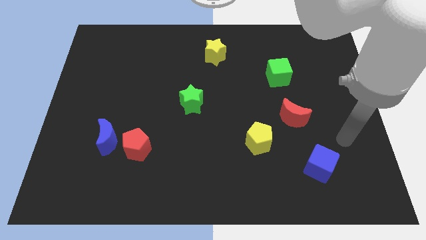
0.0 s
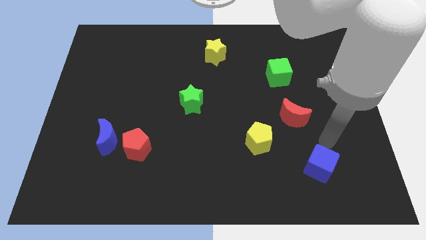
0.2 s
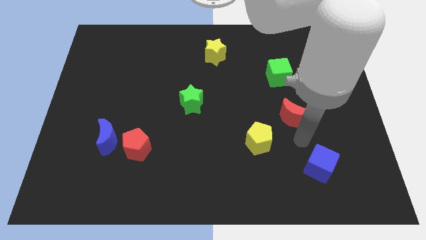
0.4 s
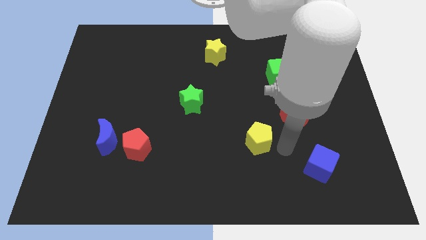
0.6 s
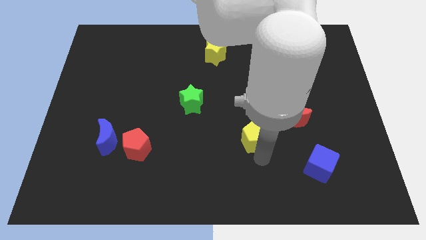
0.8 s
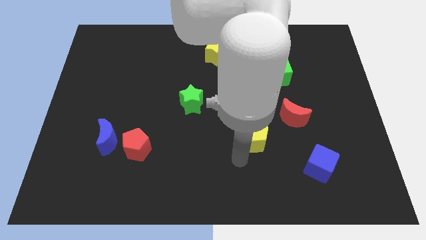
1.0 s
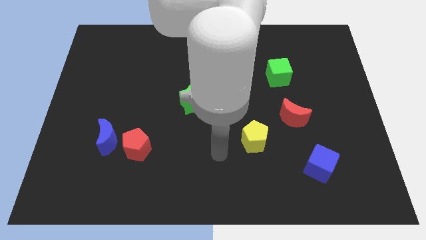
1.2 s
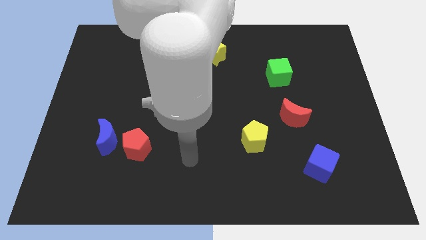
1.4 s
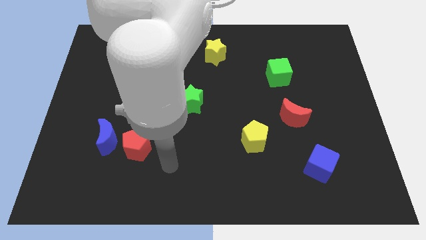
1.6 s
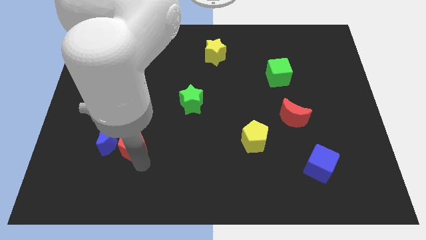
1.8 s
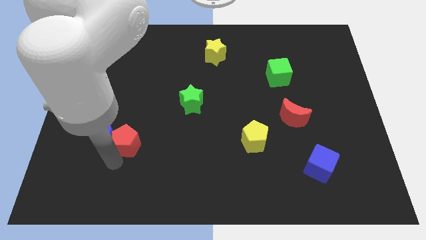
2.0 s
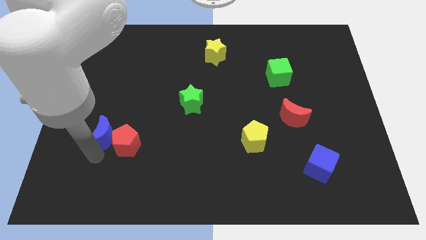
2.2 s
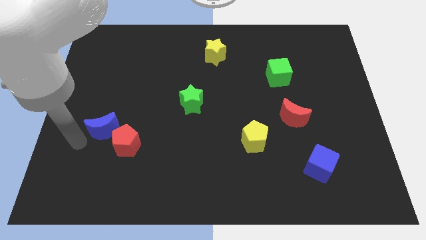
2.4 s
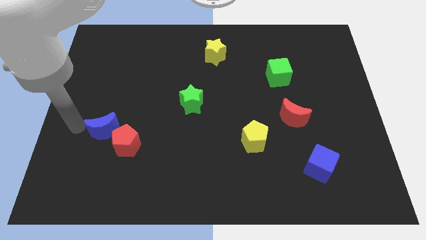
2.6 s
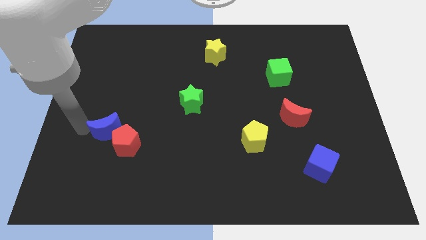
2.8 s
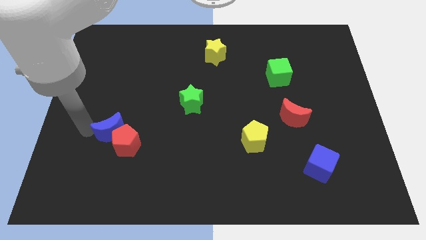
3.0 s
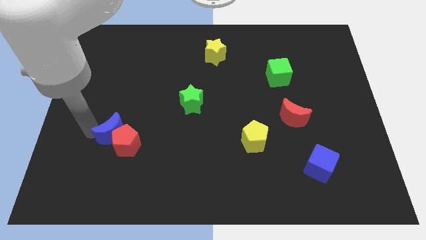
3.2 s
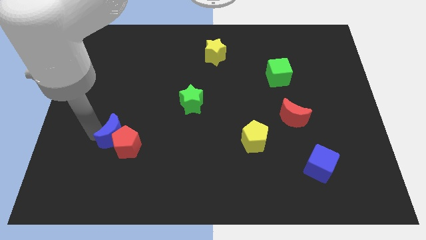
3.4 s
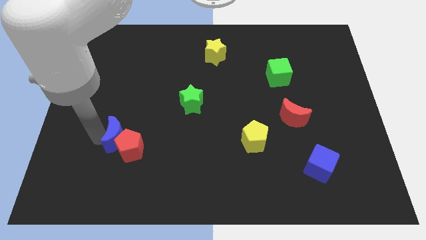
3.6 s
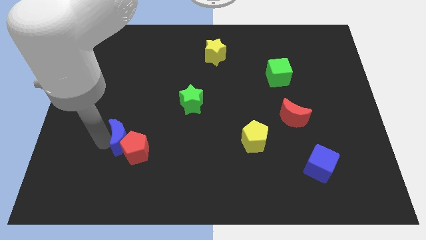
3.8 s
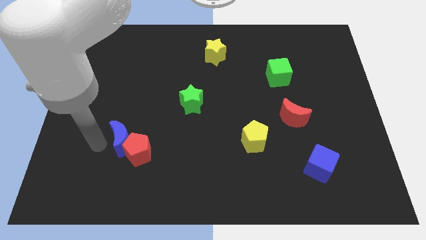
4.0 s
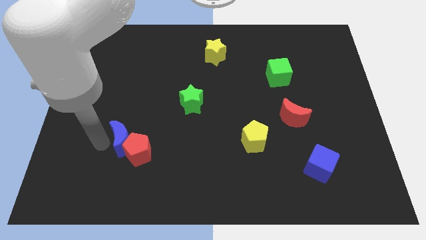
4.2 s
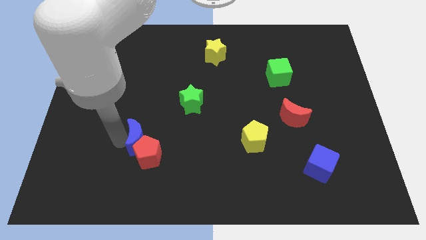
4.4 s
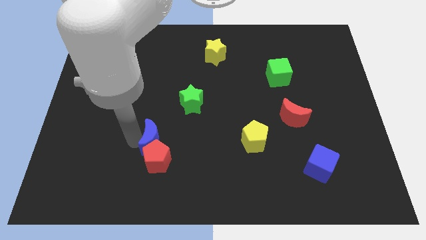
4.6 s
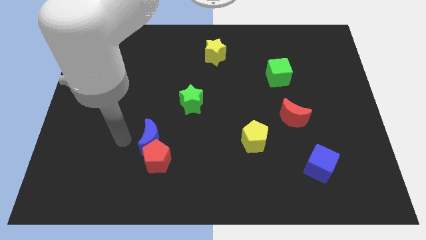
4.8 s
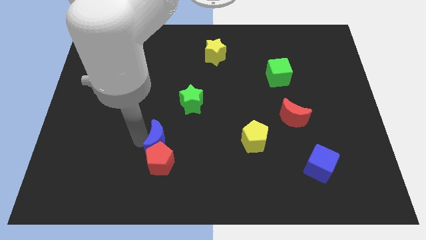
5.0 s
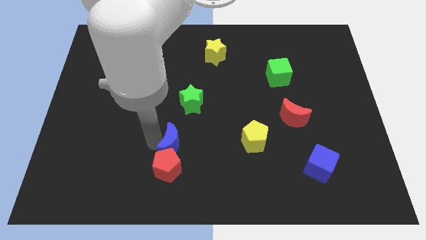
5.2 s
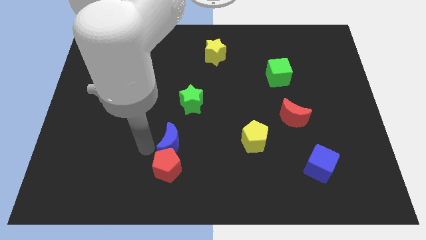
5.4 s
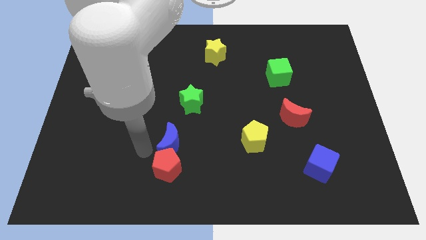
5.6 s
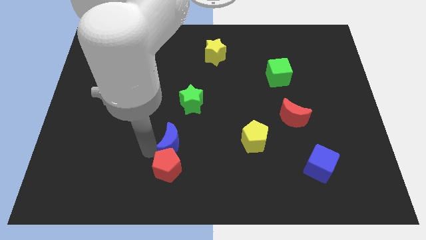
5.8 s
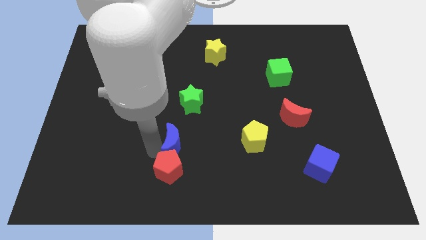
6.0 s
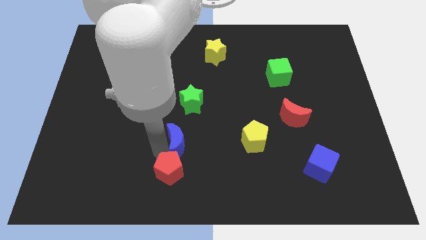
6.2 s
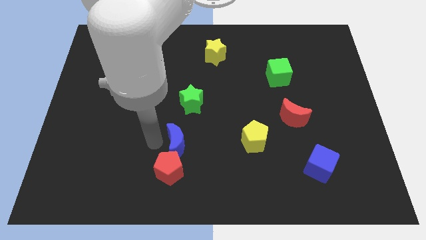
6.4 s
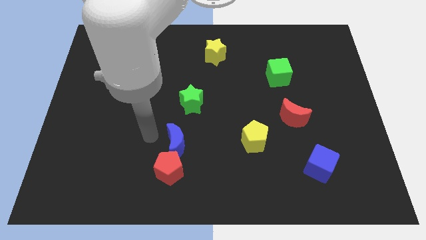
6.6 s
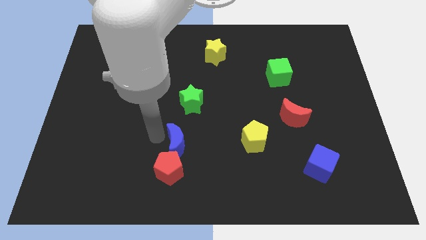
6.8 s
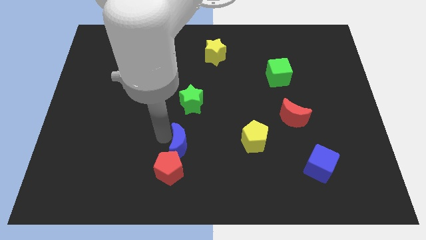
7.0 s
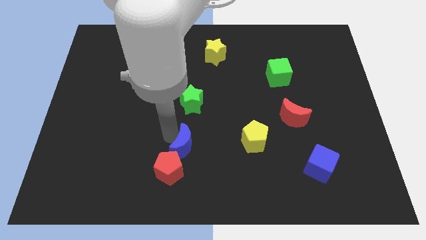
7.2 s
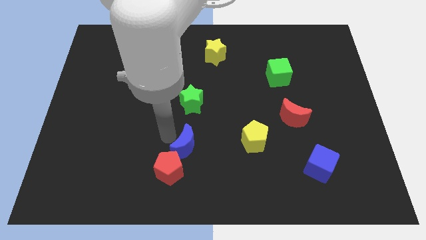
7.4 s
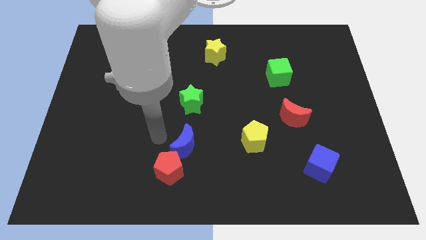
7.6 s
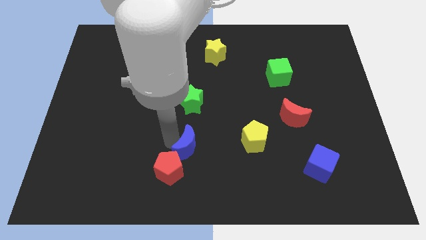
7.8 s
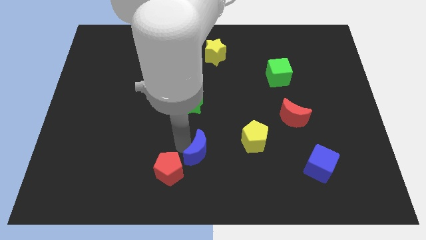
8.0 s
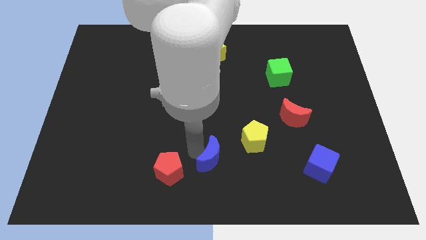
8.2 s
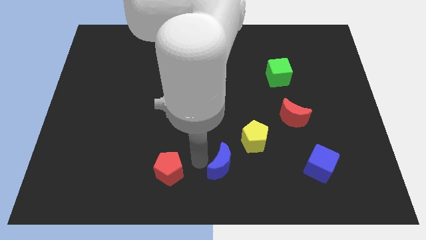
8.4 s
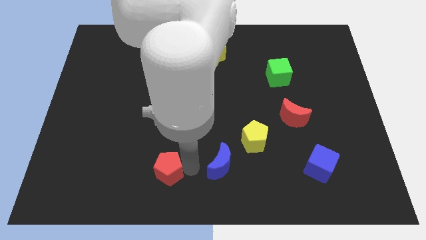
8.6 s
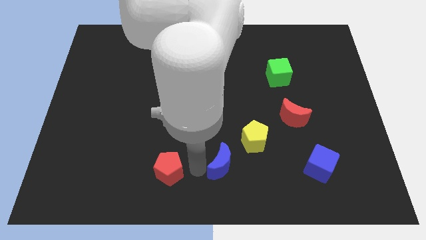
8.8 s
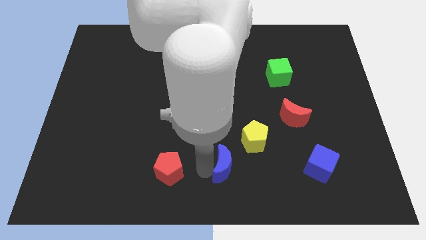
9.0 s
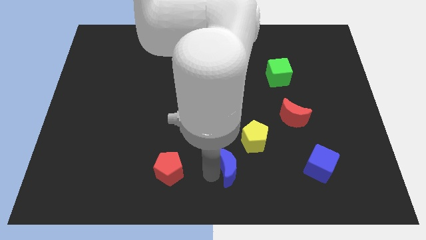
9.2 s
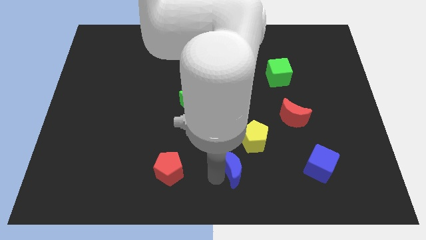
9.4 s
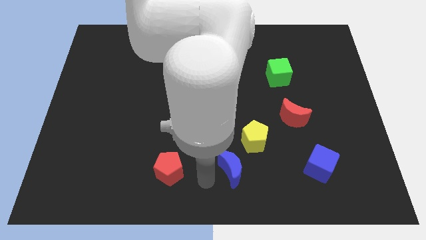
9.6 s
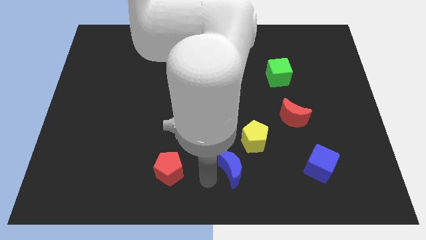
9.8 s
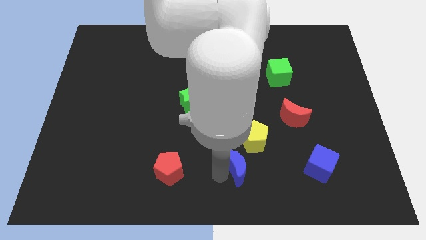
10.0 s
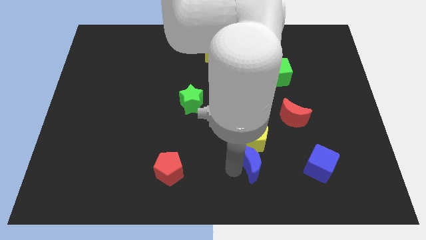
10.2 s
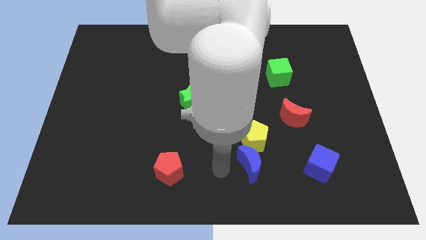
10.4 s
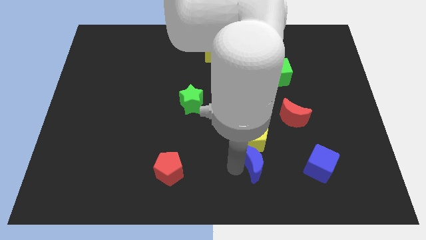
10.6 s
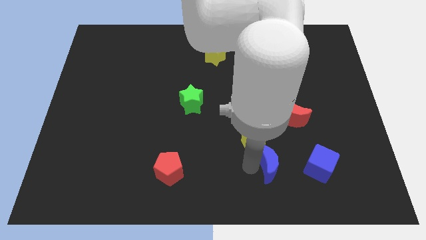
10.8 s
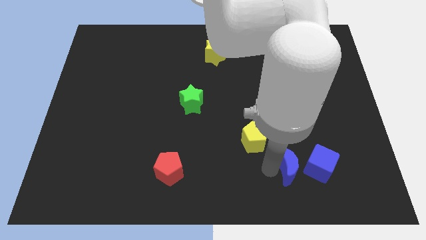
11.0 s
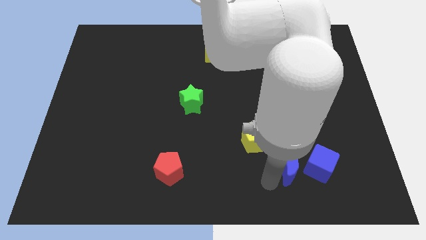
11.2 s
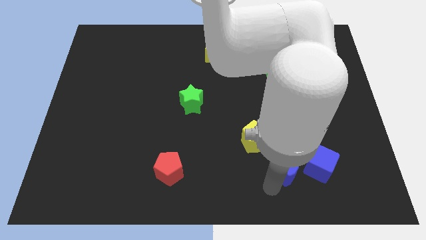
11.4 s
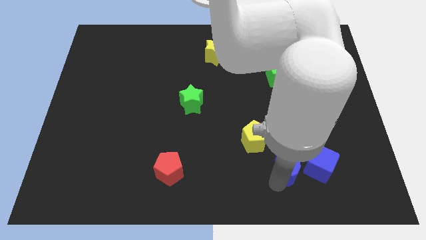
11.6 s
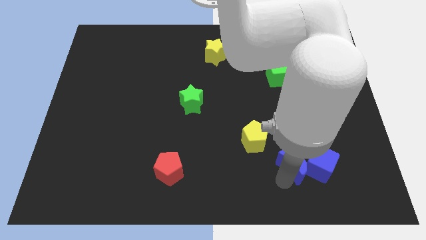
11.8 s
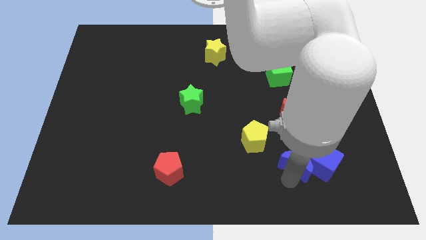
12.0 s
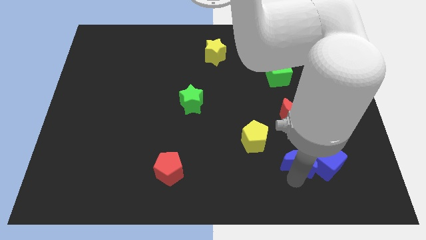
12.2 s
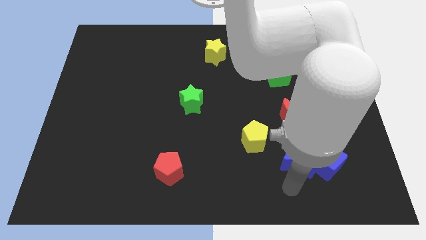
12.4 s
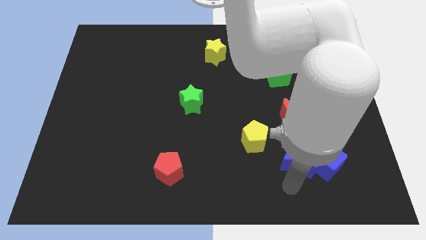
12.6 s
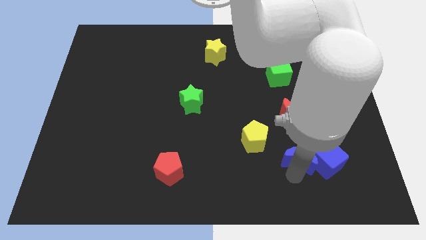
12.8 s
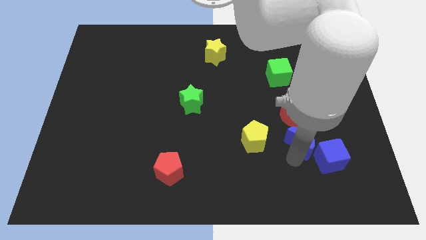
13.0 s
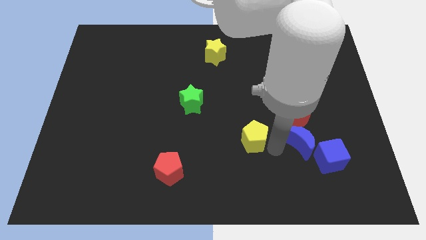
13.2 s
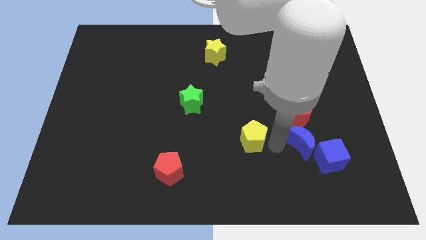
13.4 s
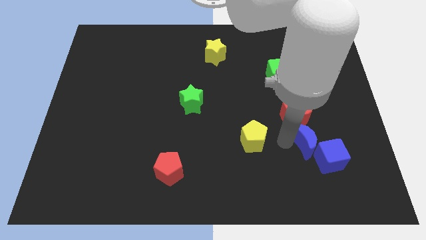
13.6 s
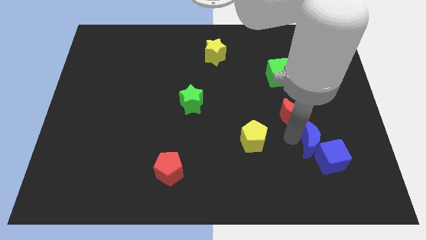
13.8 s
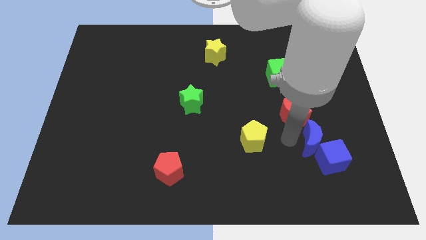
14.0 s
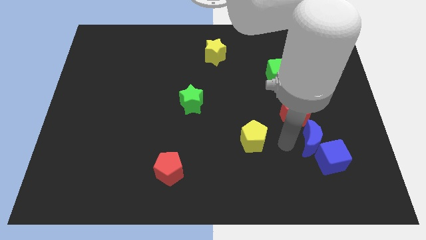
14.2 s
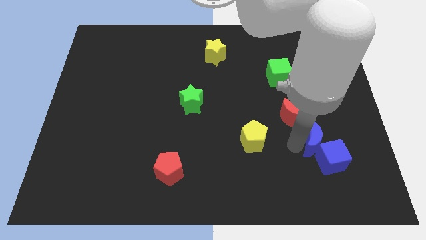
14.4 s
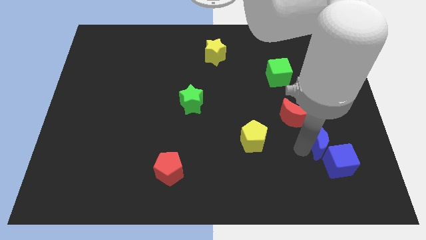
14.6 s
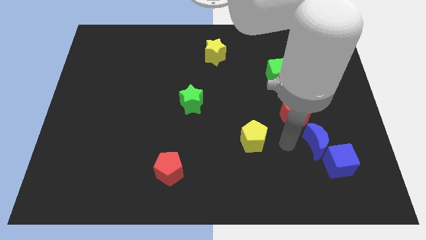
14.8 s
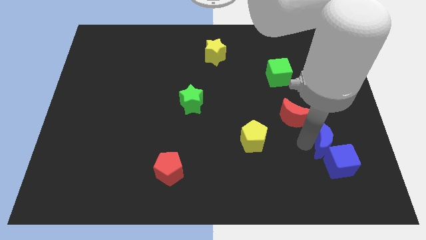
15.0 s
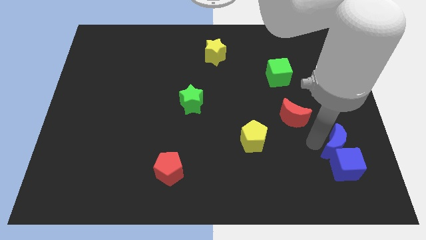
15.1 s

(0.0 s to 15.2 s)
push the blue moon diagonally up and to the right of the blue cube
